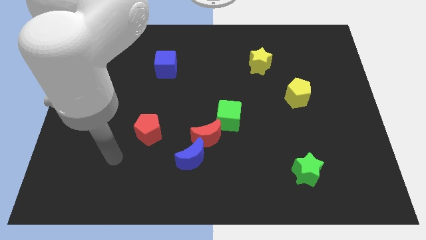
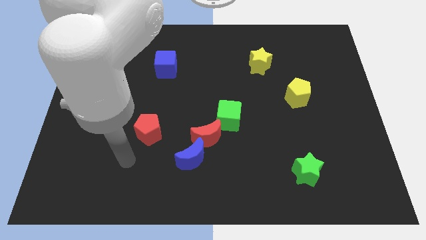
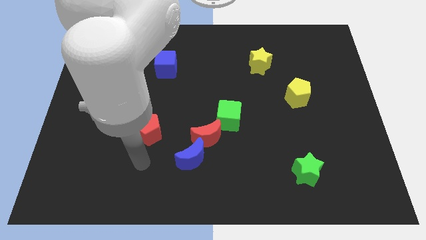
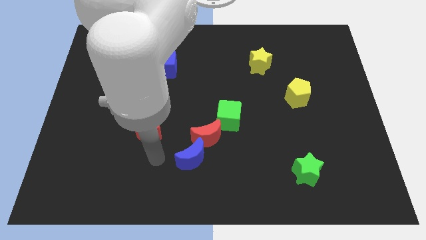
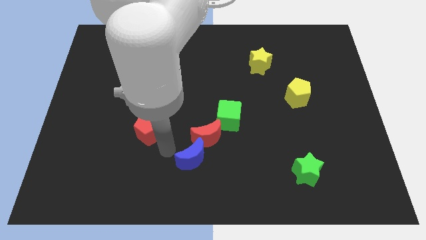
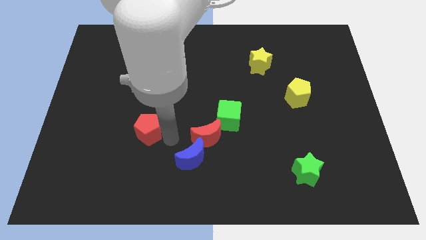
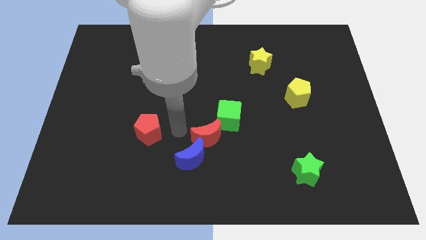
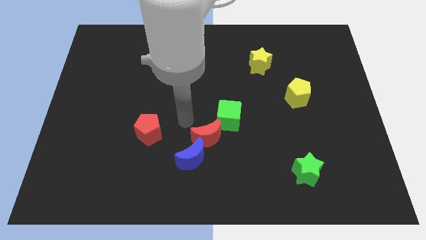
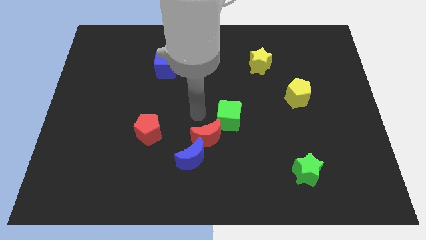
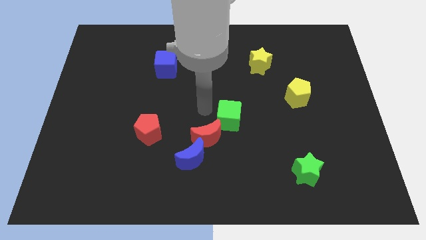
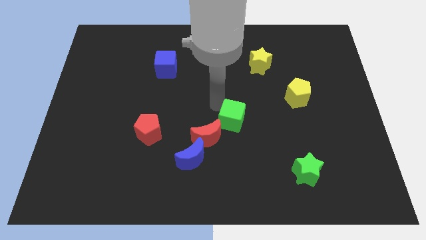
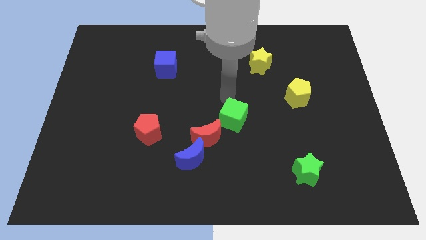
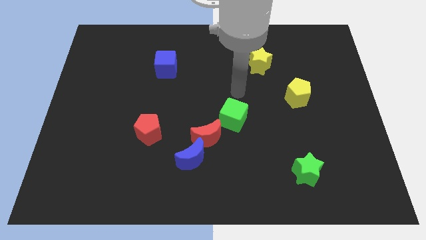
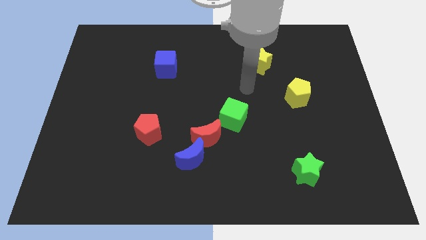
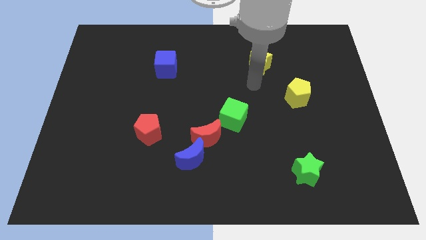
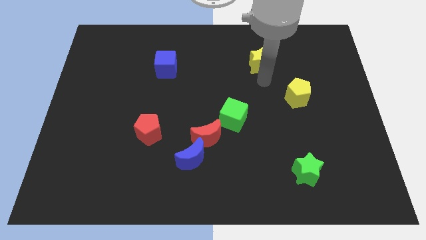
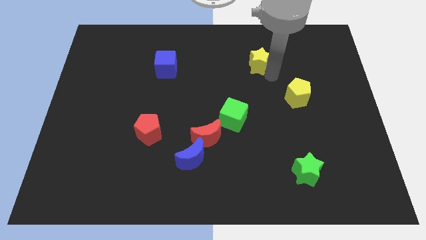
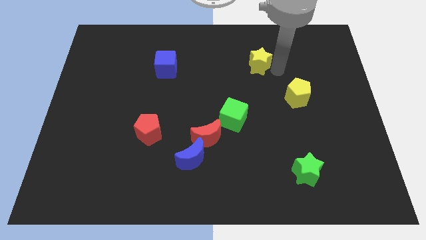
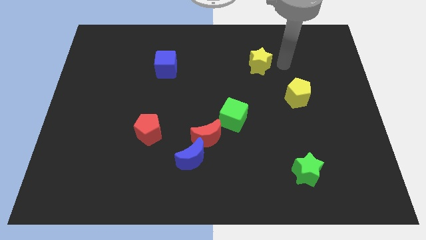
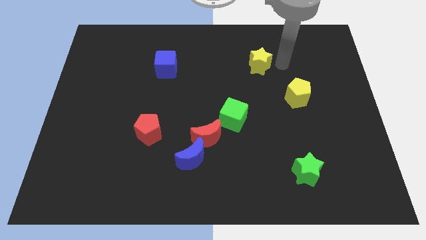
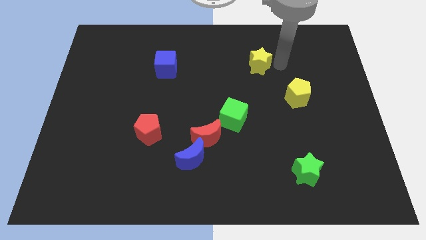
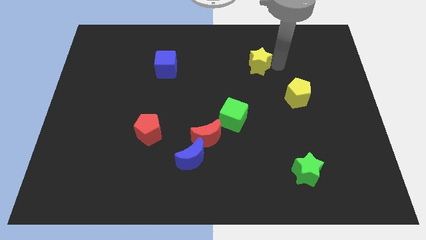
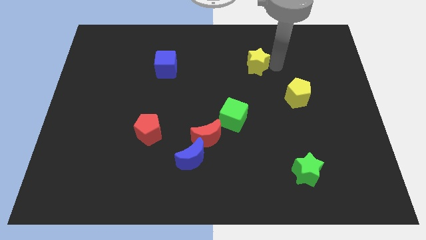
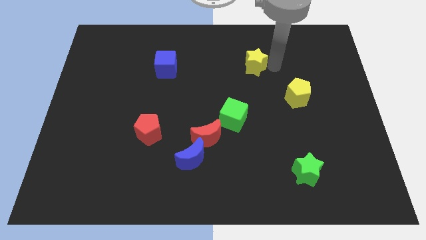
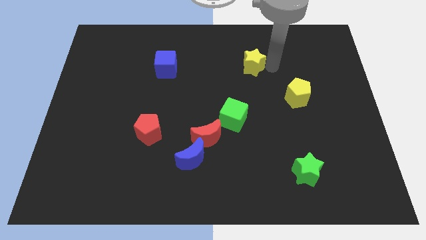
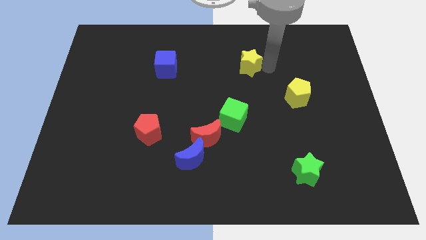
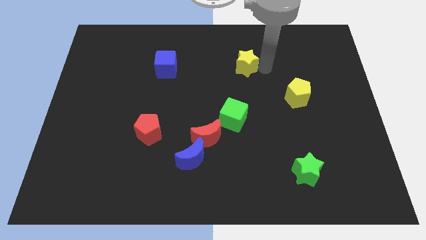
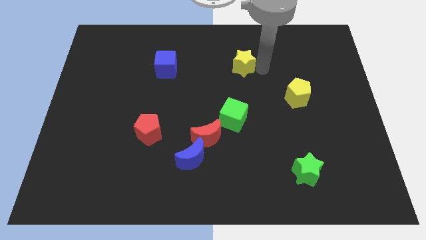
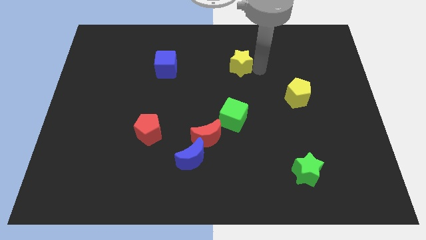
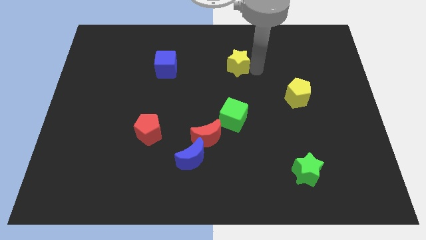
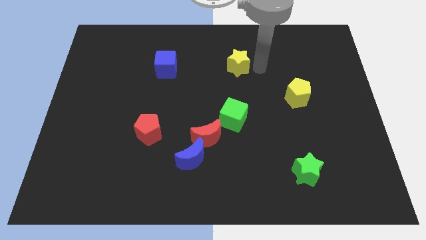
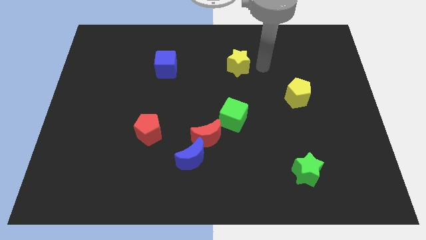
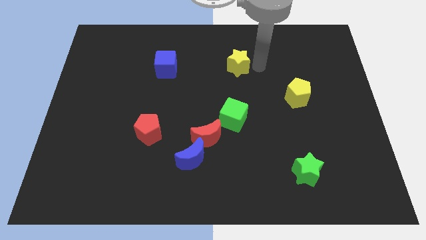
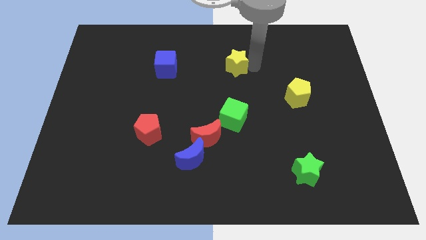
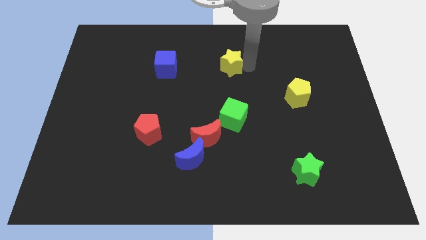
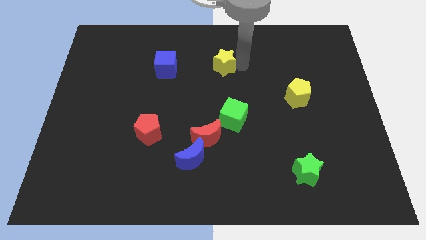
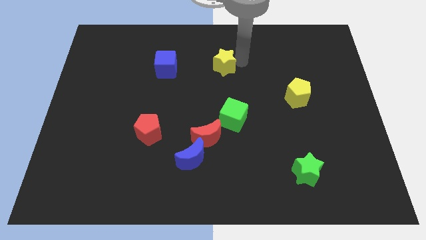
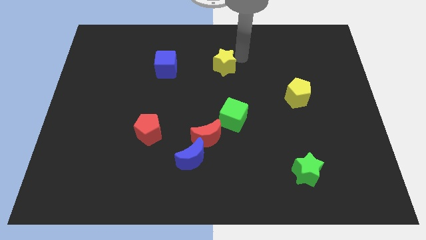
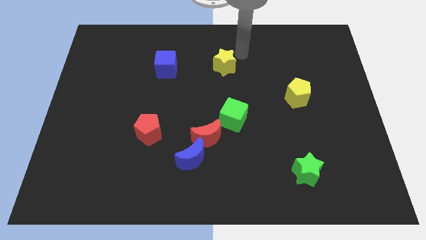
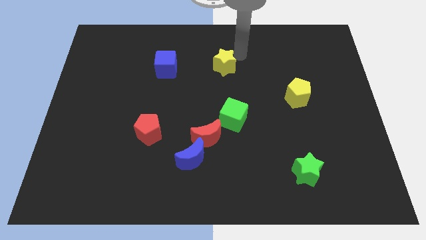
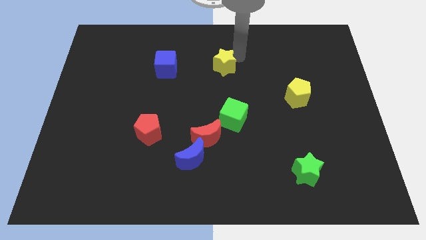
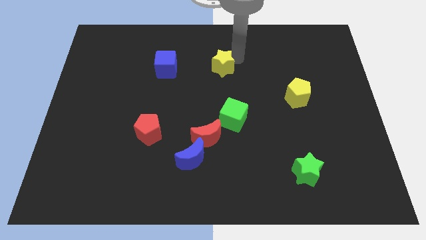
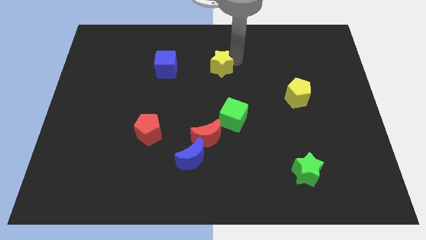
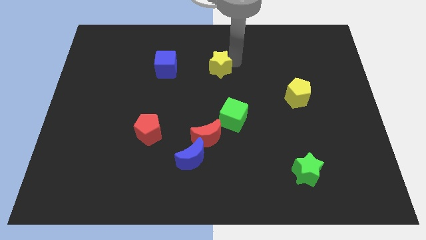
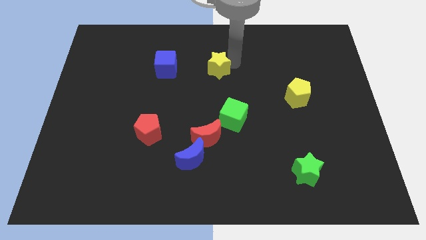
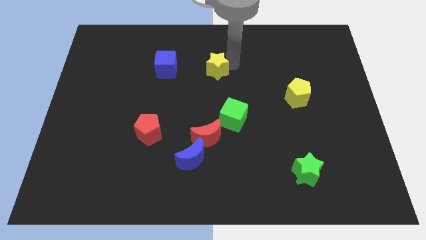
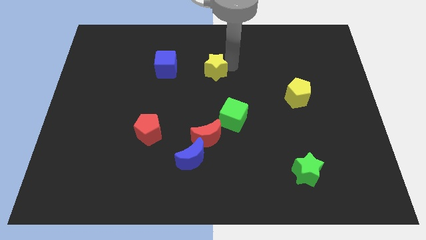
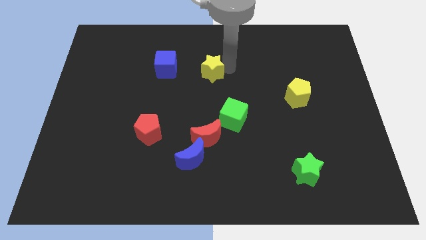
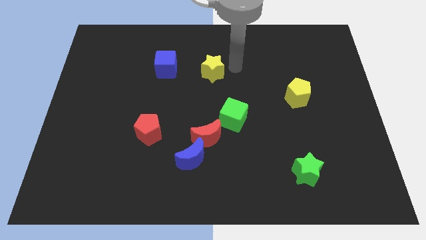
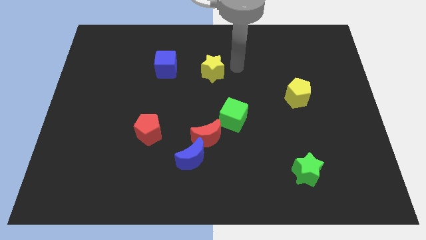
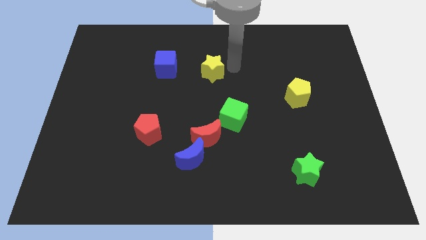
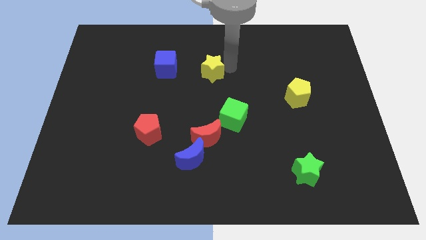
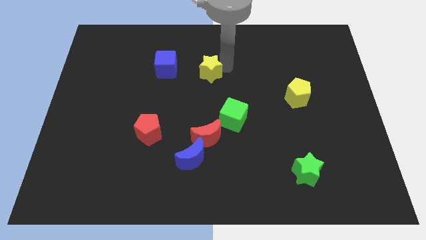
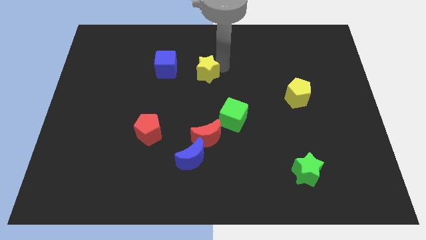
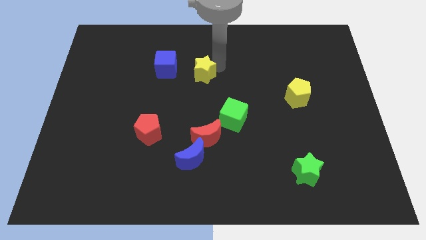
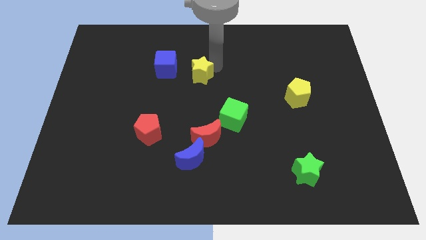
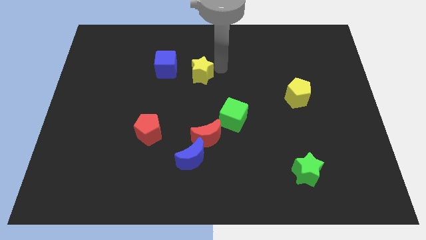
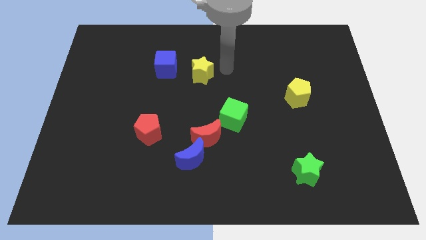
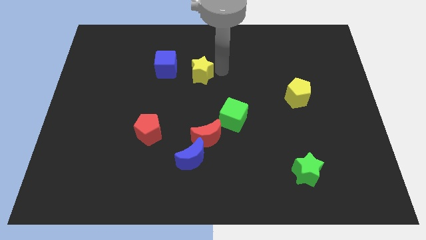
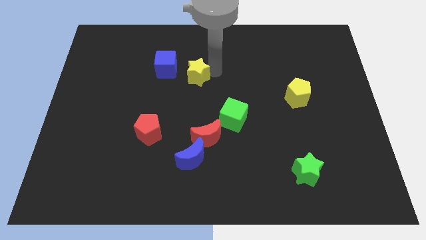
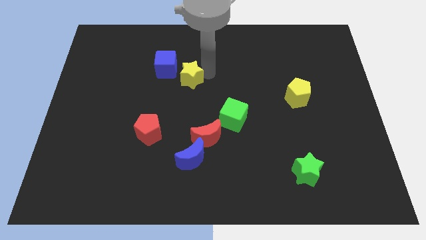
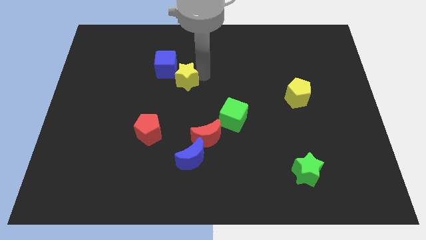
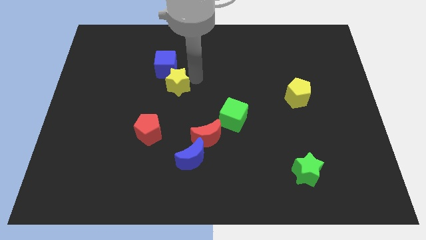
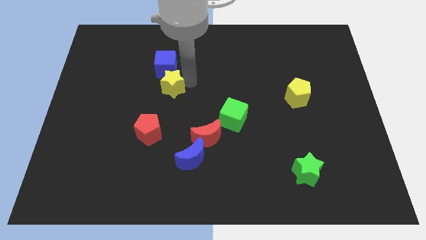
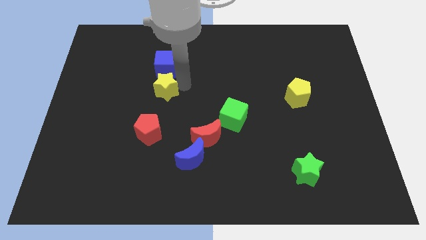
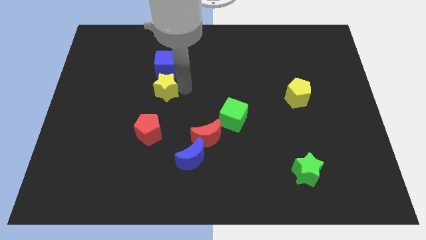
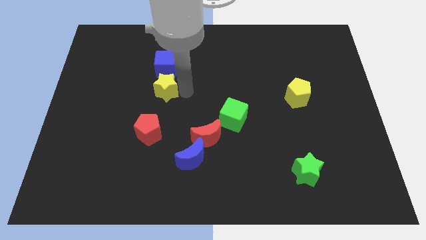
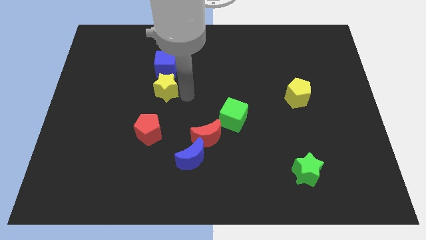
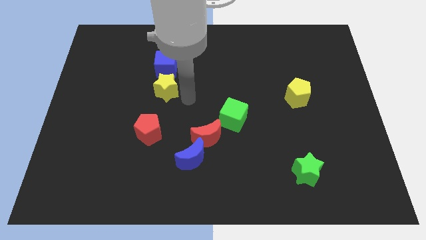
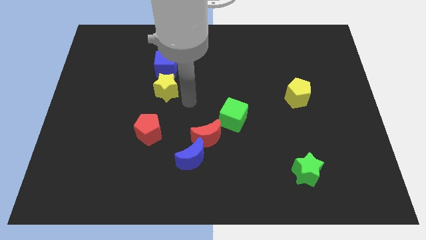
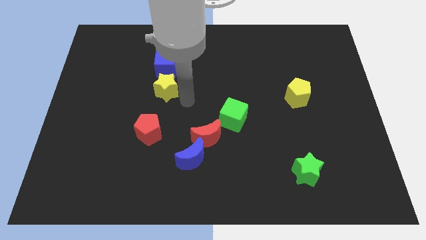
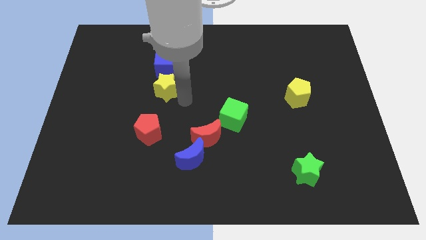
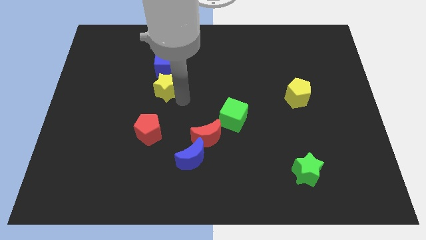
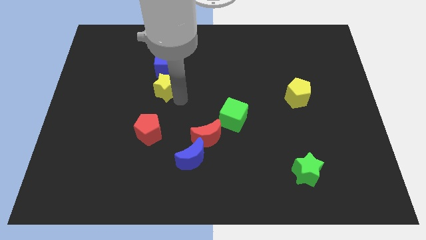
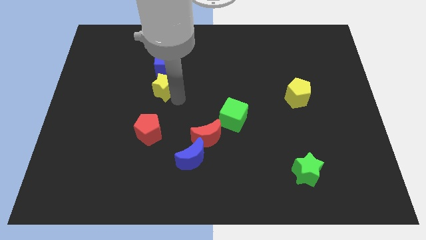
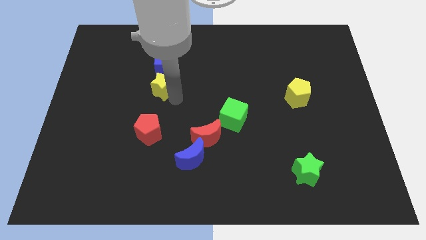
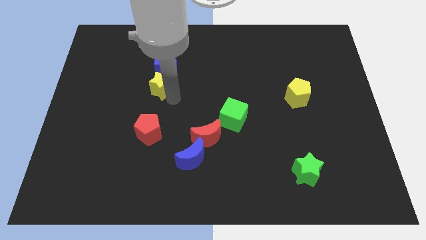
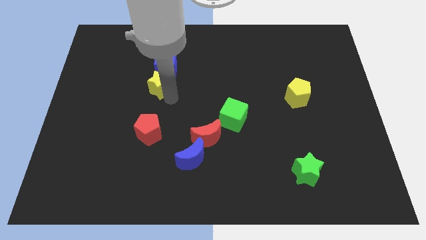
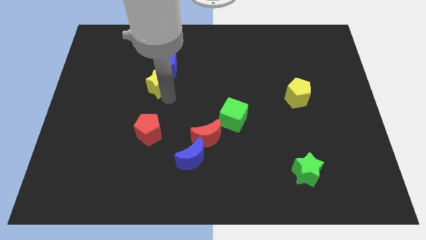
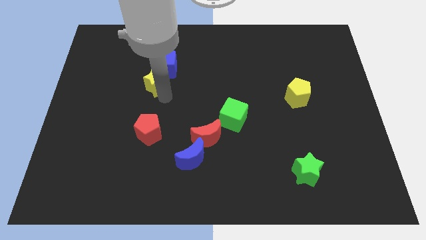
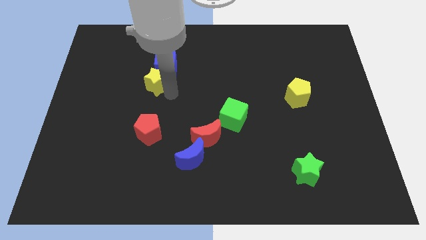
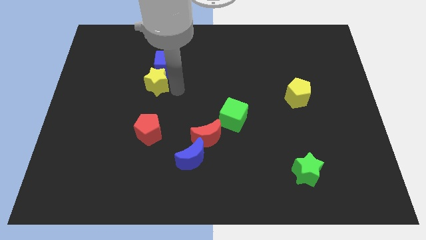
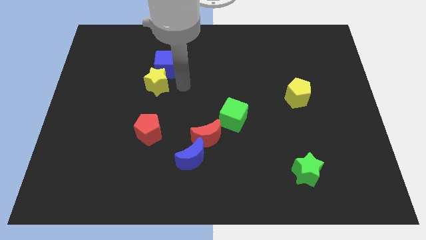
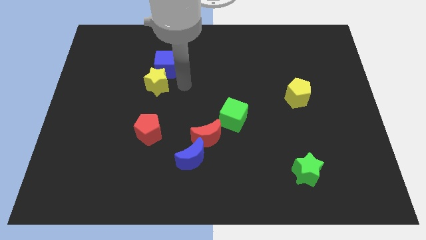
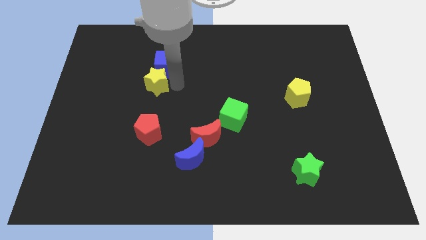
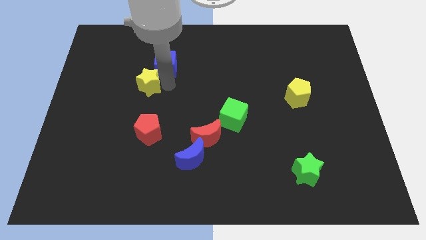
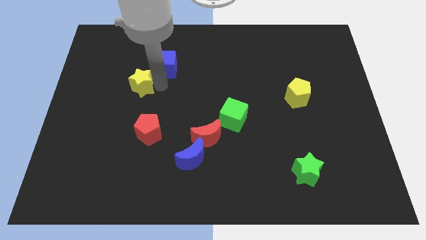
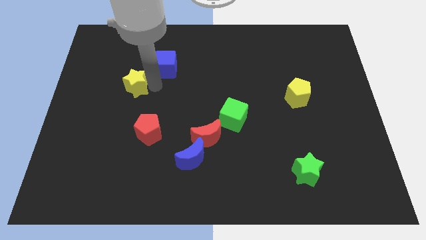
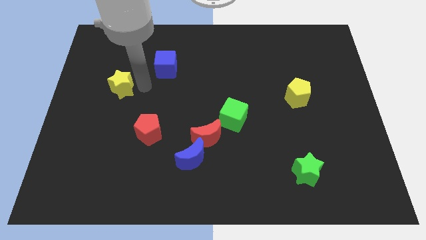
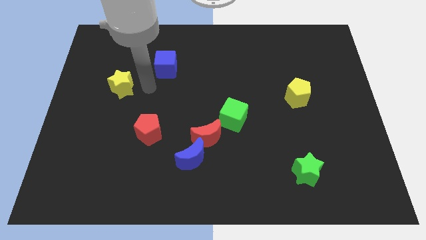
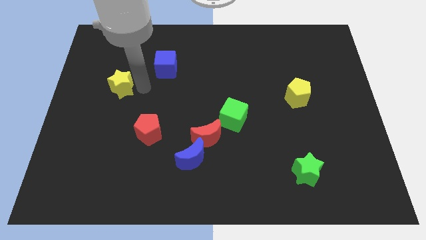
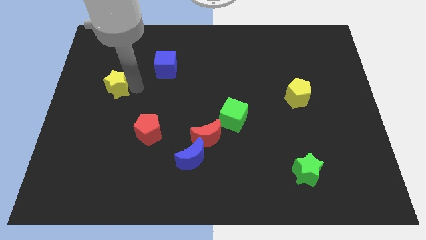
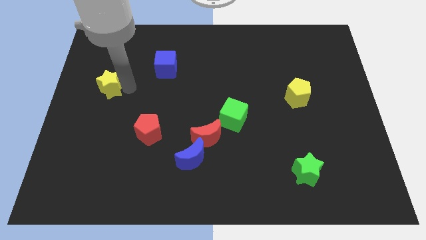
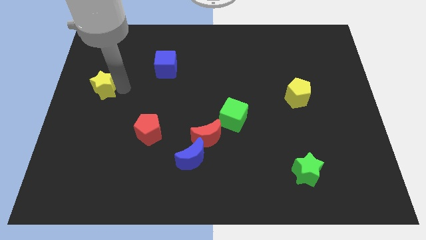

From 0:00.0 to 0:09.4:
slide the yellow star to the center left
